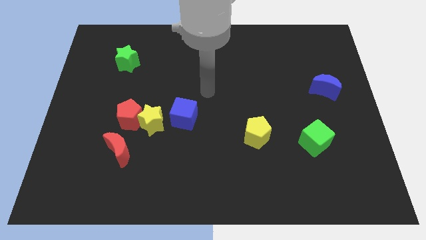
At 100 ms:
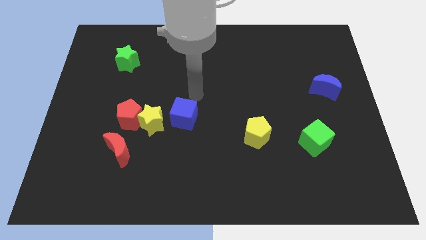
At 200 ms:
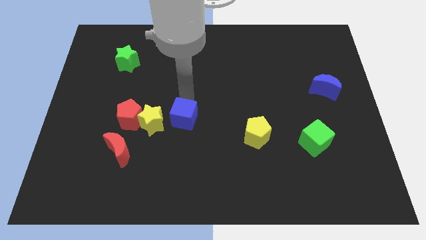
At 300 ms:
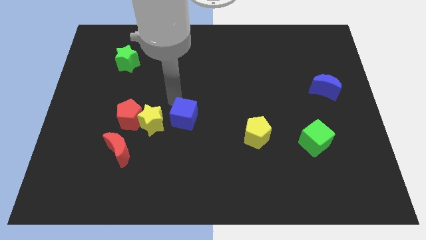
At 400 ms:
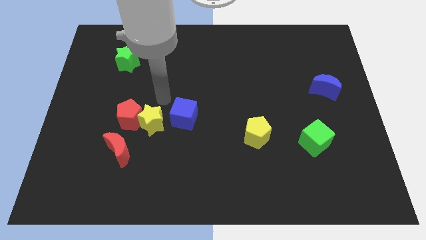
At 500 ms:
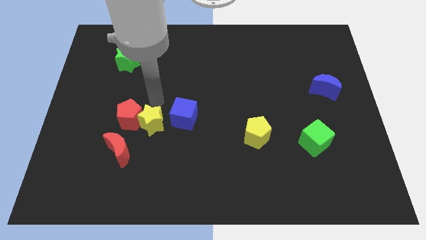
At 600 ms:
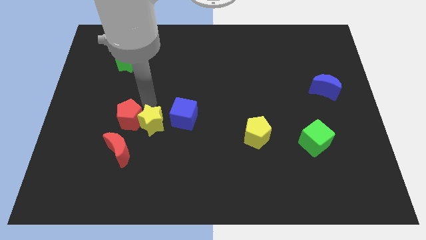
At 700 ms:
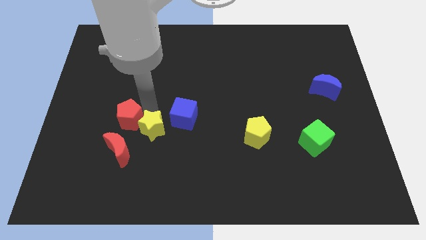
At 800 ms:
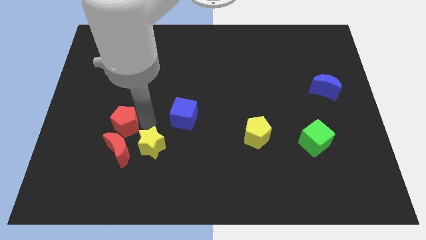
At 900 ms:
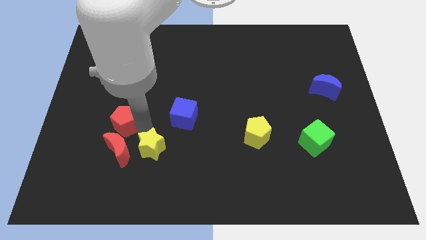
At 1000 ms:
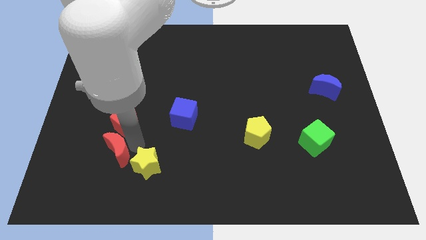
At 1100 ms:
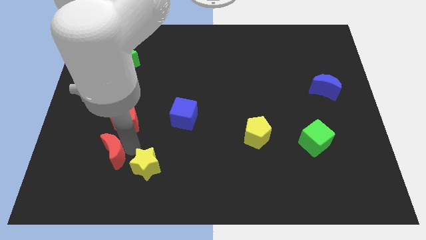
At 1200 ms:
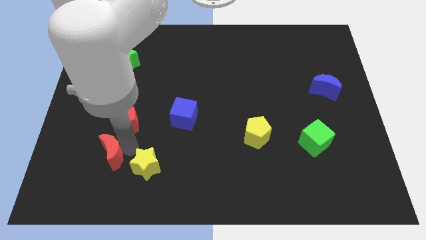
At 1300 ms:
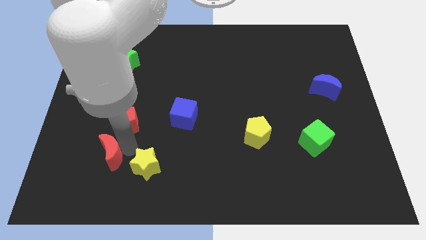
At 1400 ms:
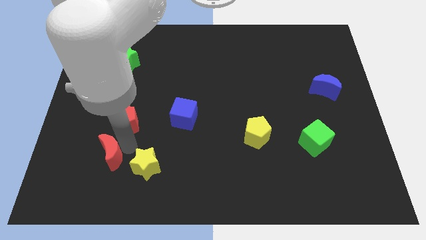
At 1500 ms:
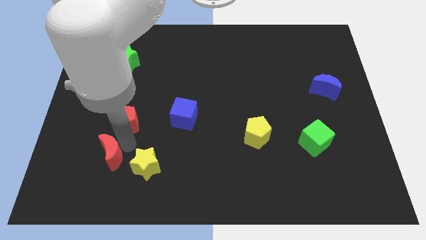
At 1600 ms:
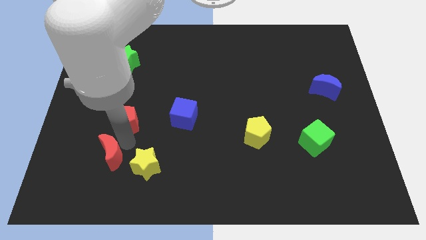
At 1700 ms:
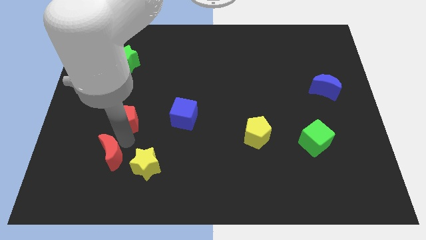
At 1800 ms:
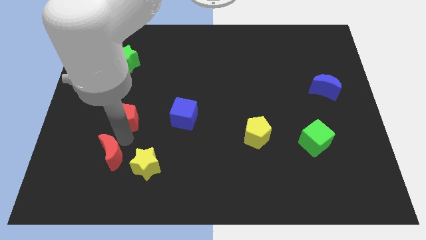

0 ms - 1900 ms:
pull the red pentagon apart from the yellow star and red moon

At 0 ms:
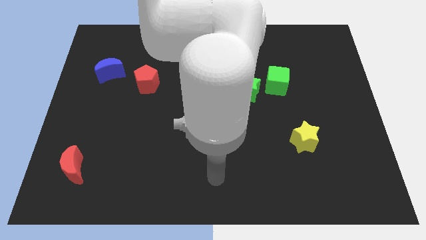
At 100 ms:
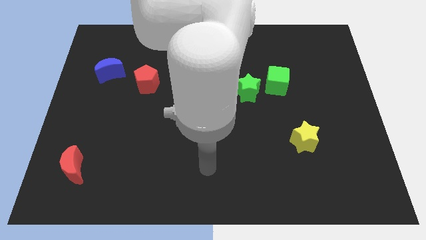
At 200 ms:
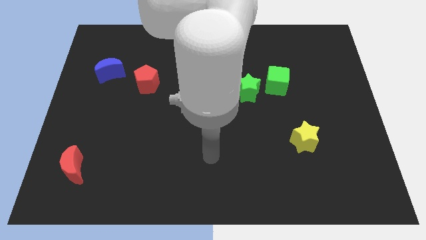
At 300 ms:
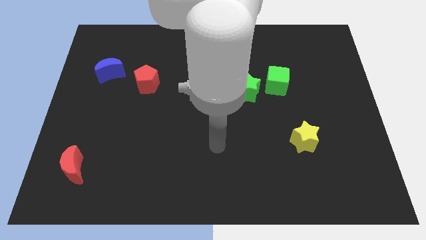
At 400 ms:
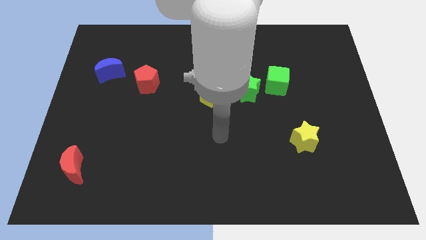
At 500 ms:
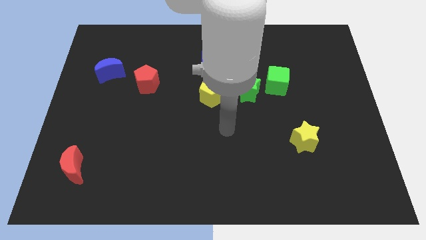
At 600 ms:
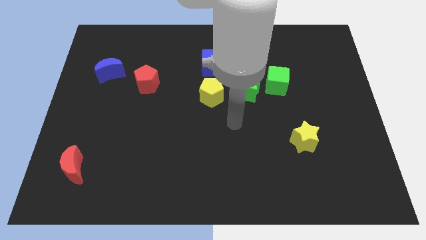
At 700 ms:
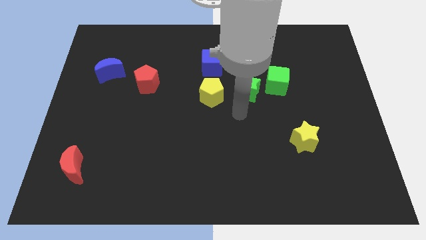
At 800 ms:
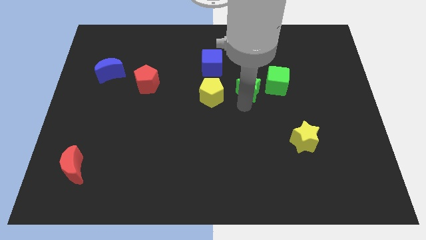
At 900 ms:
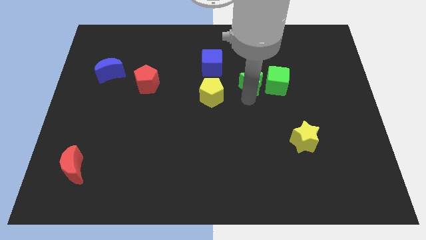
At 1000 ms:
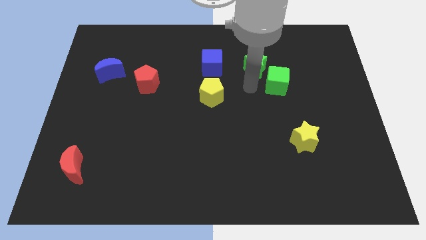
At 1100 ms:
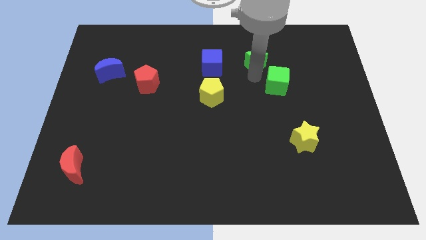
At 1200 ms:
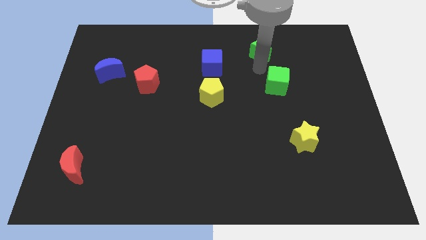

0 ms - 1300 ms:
move the green cube away from the green star

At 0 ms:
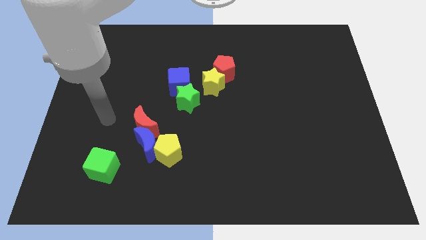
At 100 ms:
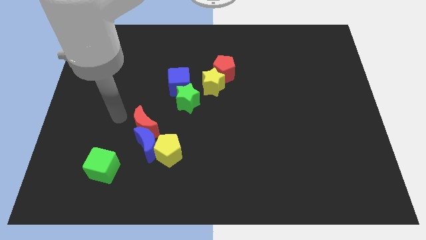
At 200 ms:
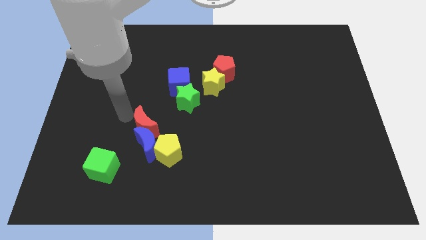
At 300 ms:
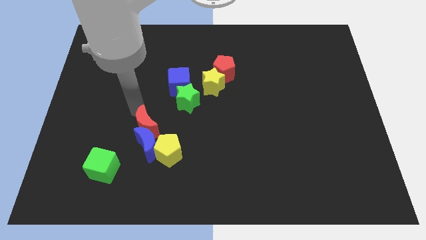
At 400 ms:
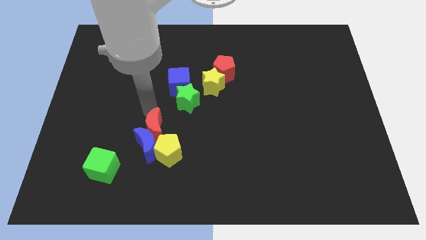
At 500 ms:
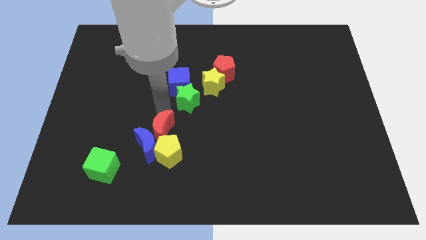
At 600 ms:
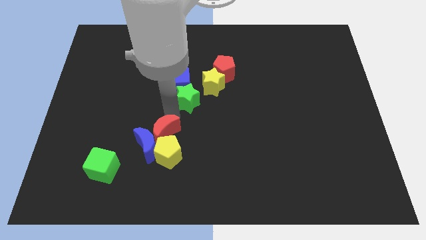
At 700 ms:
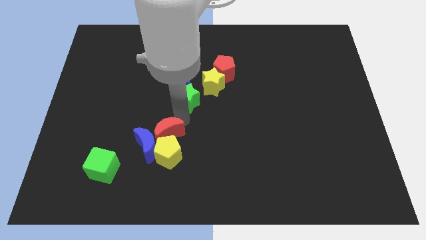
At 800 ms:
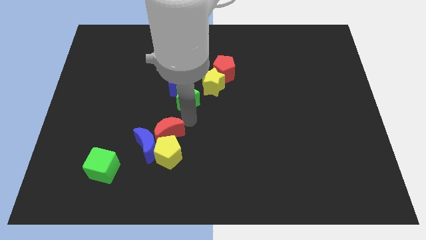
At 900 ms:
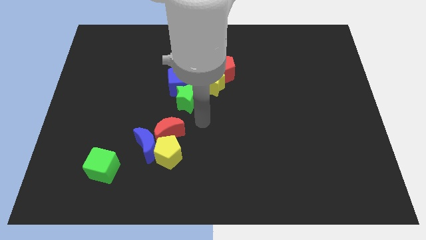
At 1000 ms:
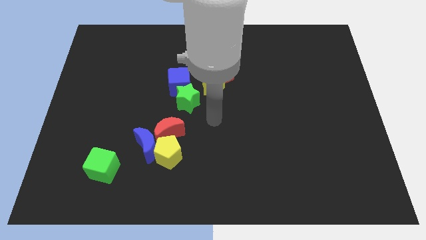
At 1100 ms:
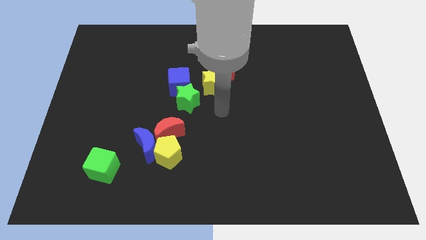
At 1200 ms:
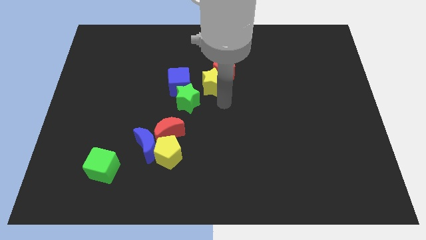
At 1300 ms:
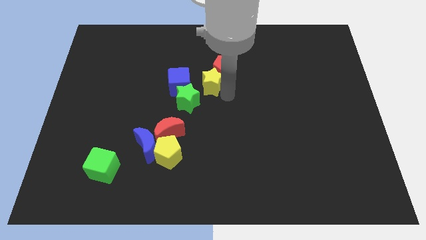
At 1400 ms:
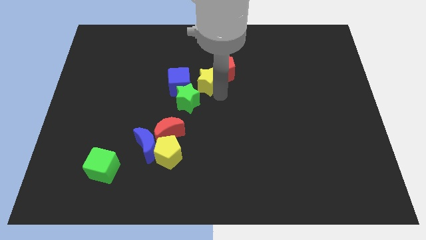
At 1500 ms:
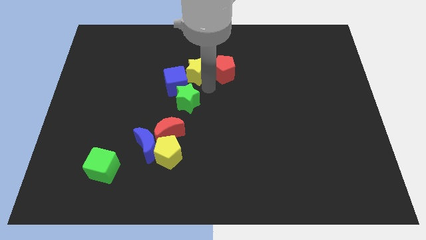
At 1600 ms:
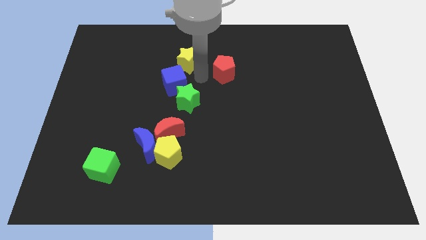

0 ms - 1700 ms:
separate the red pentagon from the yellow star

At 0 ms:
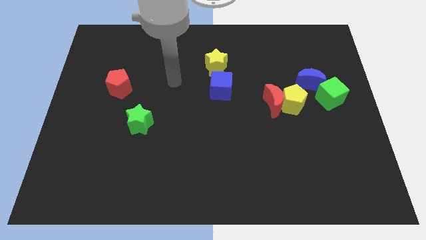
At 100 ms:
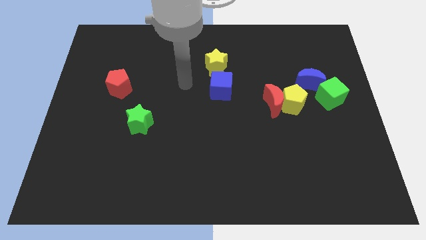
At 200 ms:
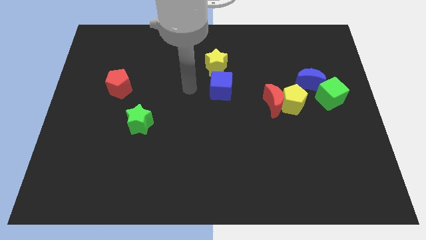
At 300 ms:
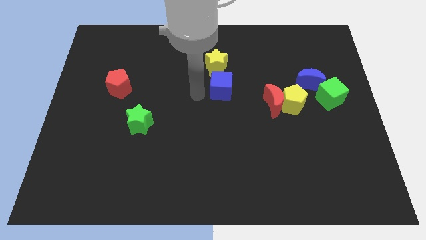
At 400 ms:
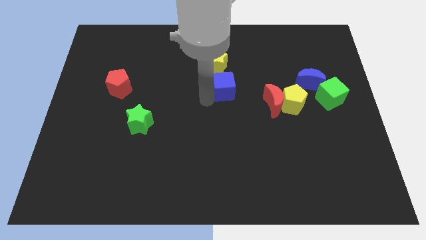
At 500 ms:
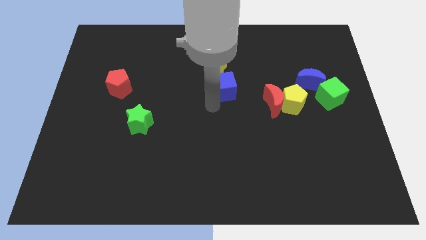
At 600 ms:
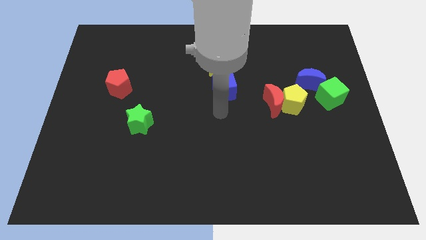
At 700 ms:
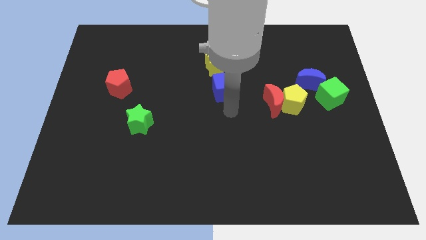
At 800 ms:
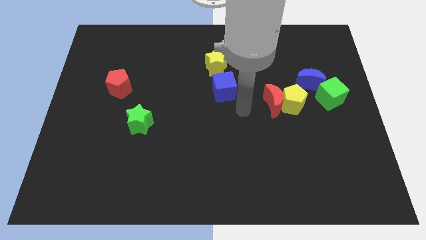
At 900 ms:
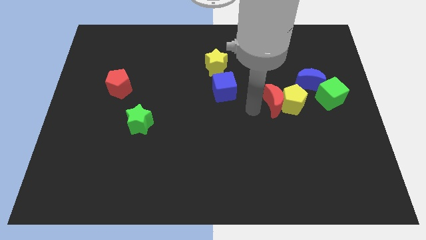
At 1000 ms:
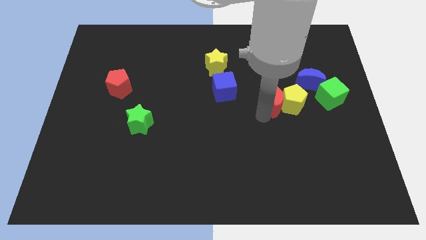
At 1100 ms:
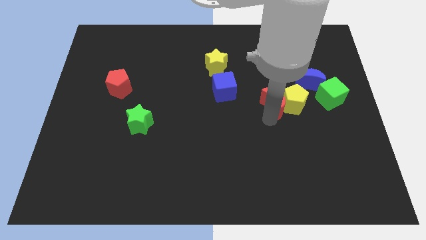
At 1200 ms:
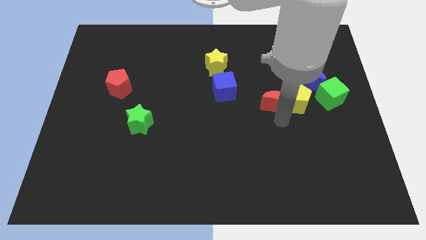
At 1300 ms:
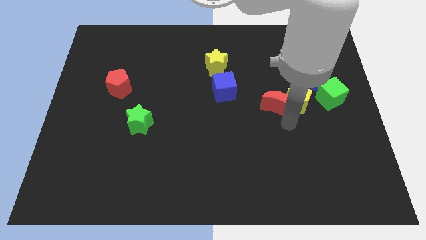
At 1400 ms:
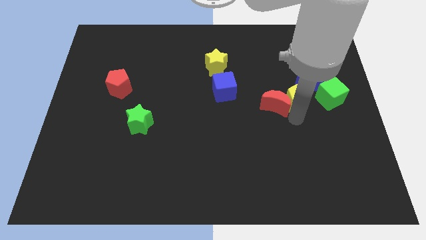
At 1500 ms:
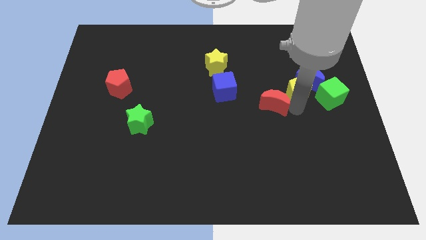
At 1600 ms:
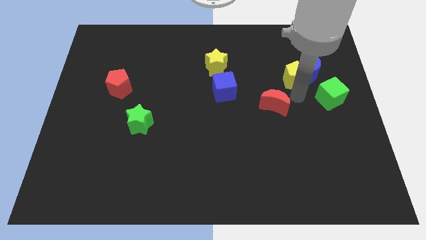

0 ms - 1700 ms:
separate the red moon from the yellow pentagon

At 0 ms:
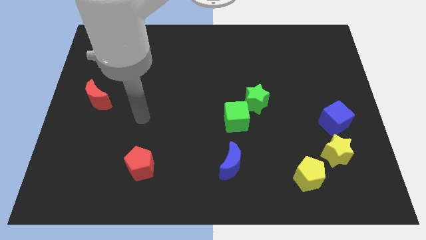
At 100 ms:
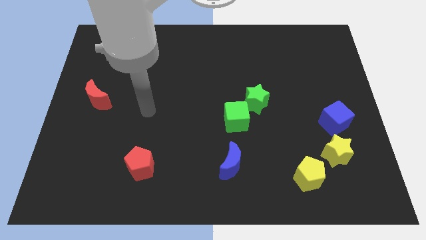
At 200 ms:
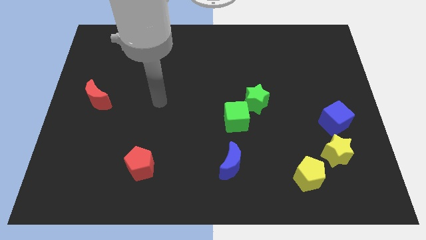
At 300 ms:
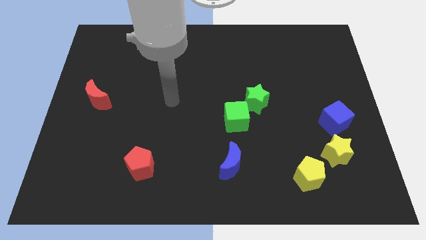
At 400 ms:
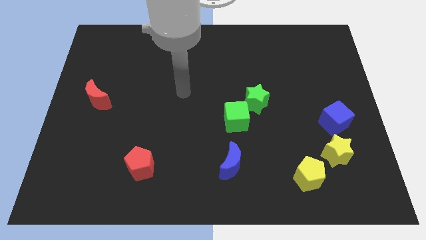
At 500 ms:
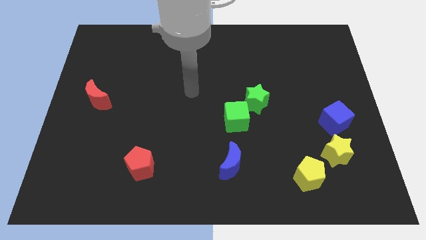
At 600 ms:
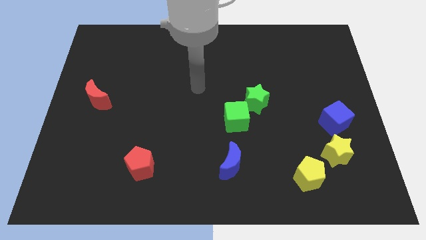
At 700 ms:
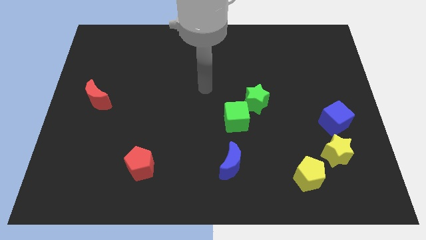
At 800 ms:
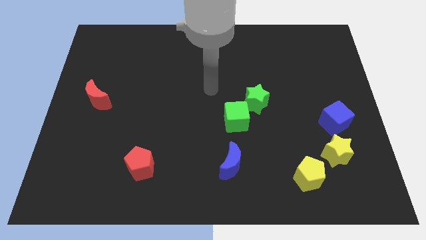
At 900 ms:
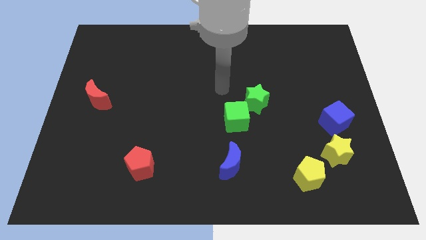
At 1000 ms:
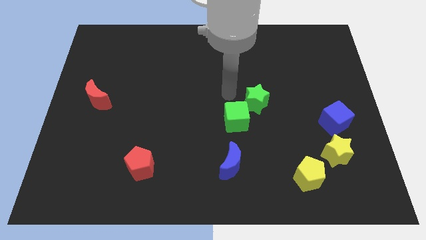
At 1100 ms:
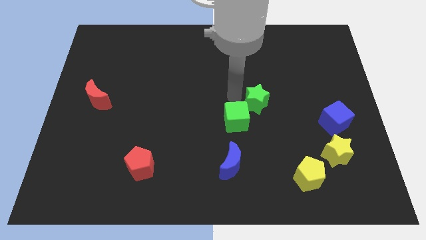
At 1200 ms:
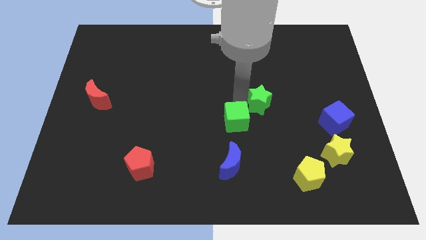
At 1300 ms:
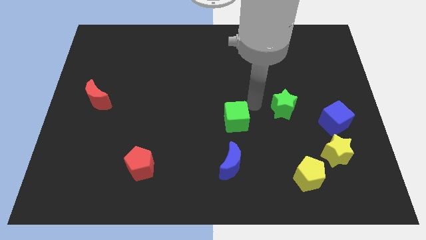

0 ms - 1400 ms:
separate the green cube from the green star

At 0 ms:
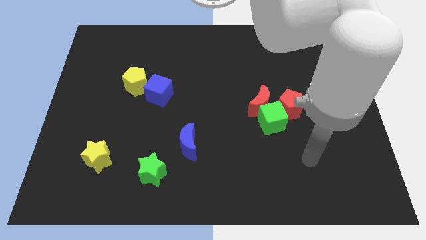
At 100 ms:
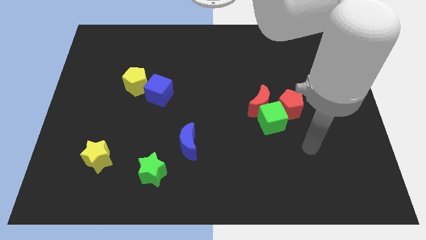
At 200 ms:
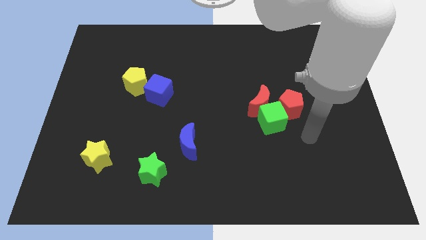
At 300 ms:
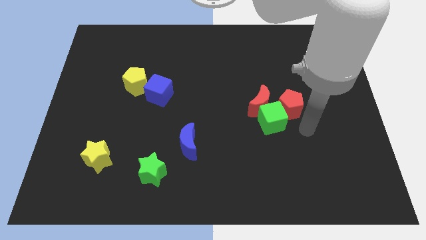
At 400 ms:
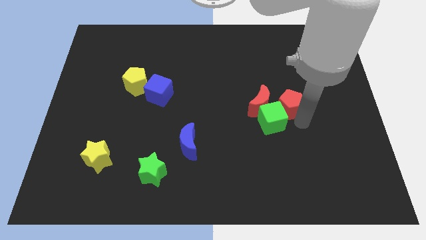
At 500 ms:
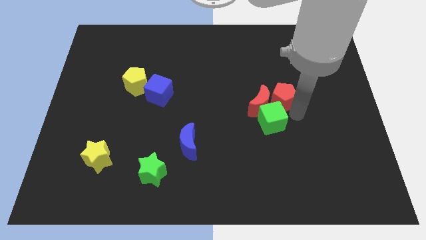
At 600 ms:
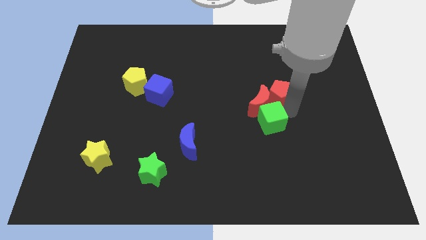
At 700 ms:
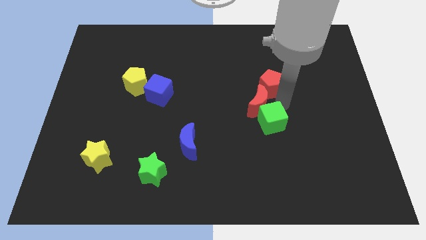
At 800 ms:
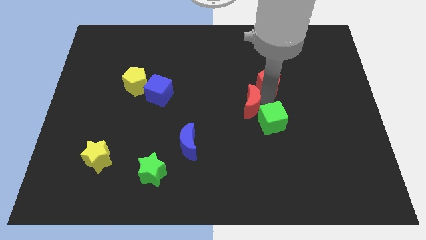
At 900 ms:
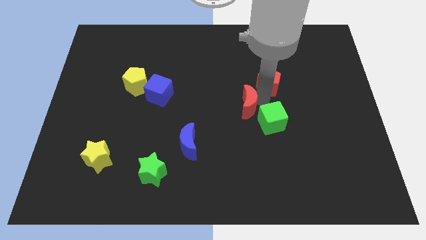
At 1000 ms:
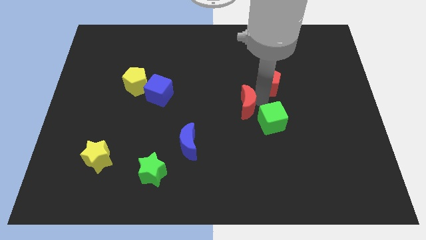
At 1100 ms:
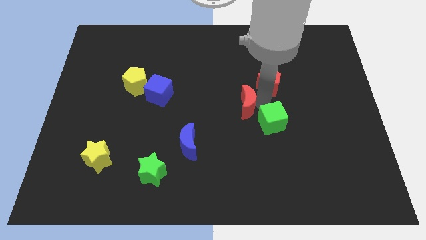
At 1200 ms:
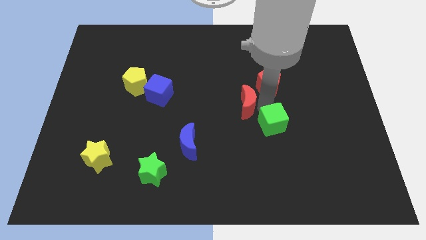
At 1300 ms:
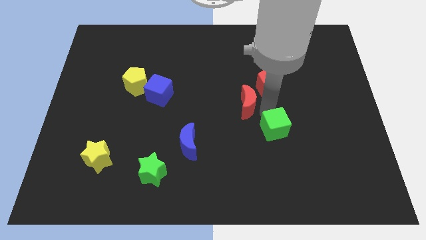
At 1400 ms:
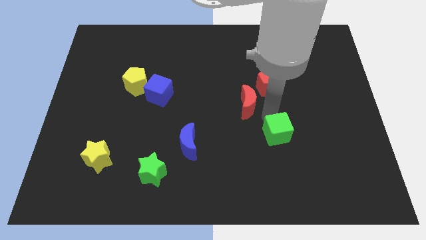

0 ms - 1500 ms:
move the green cube away from the red moon and red pentagon
